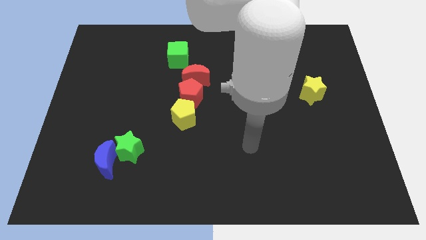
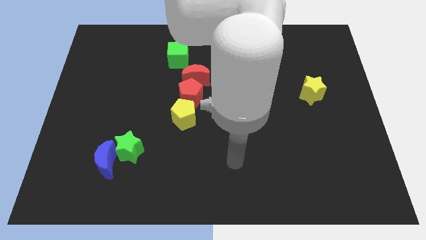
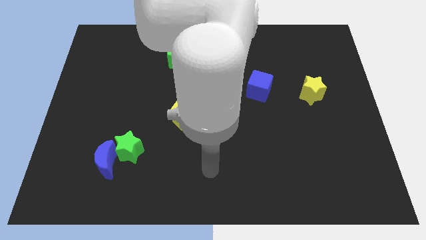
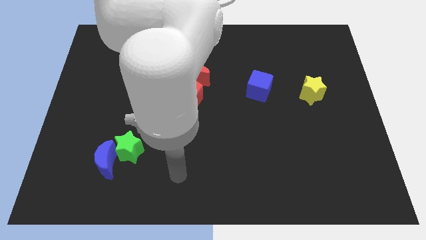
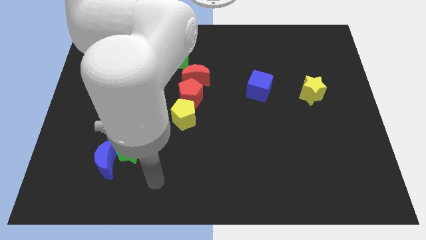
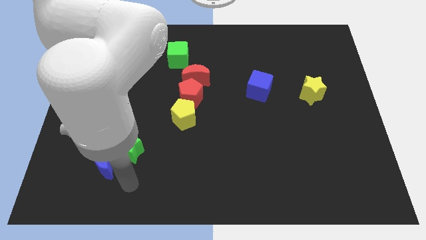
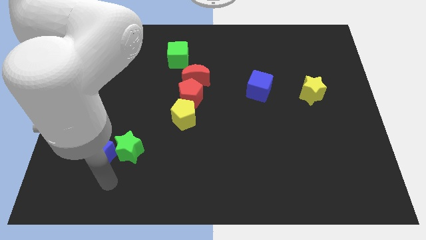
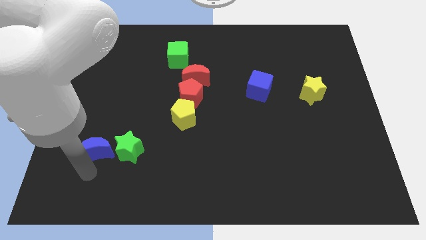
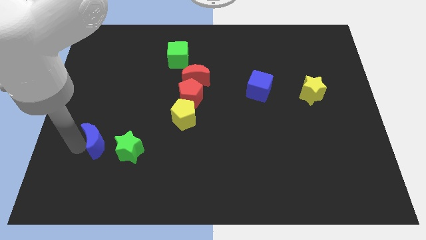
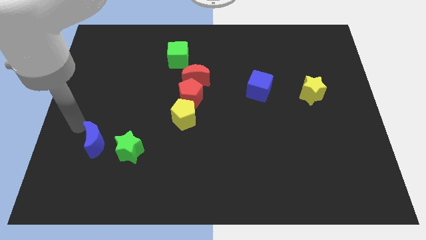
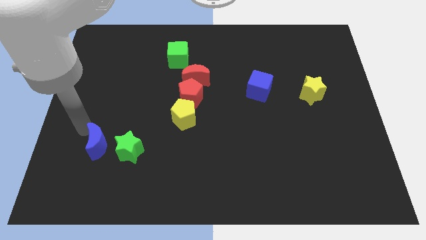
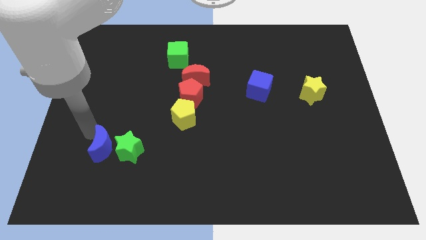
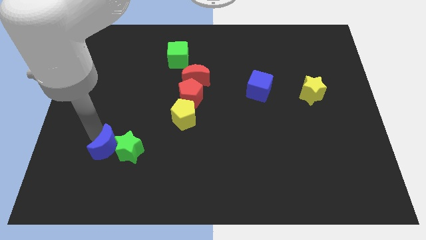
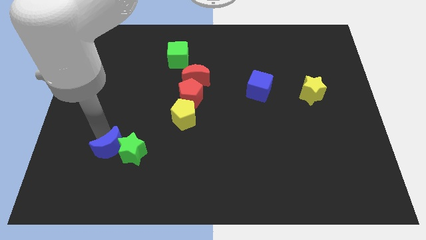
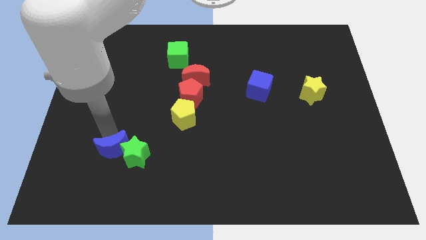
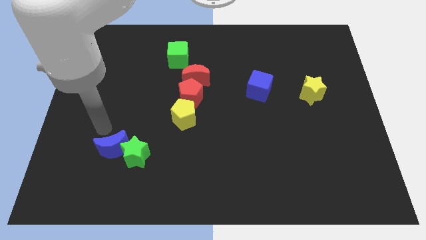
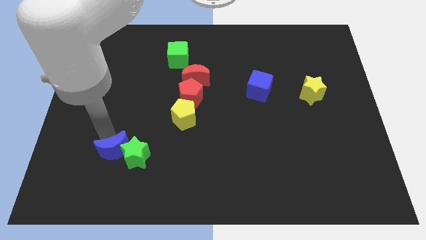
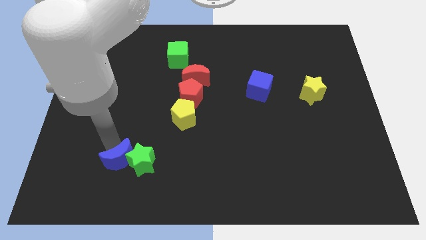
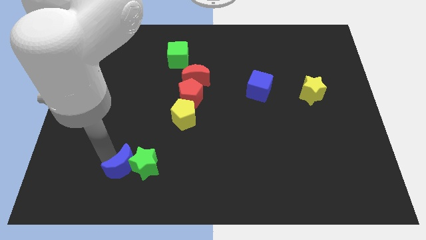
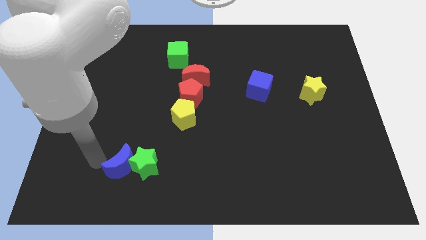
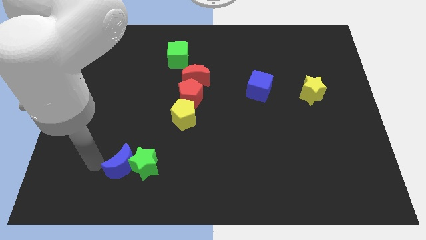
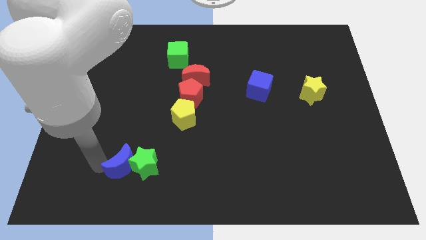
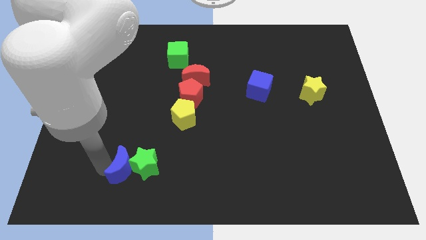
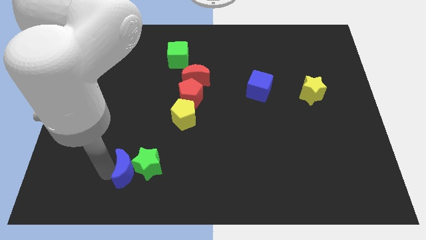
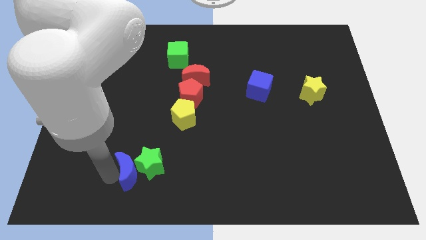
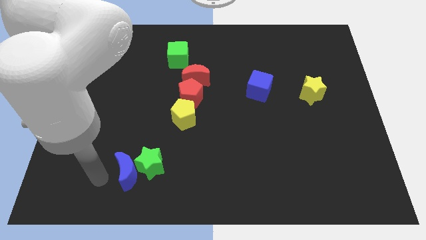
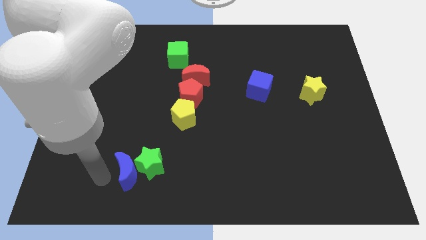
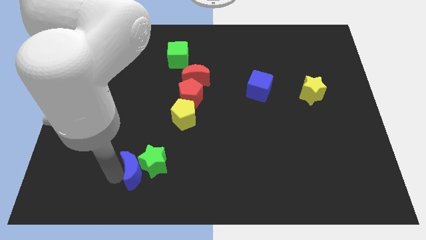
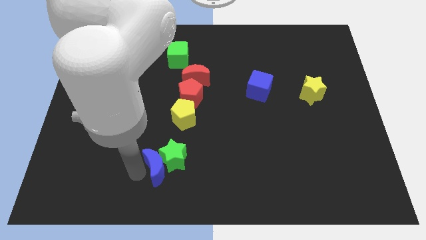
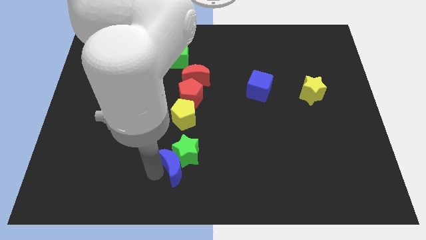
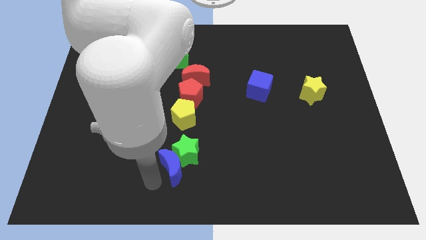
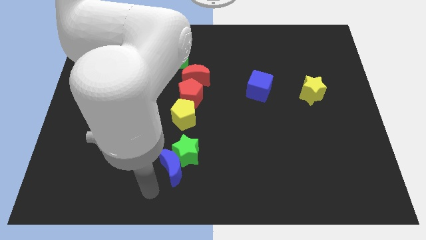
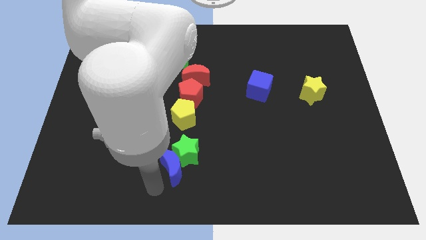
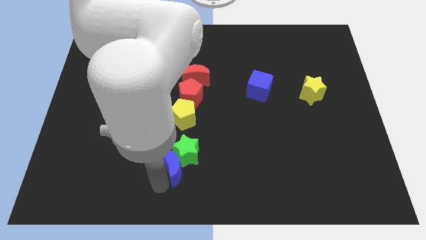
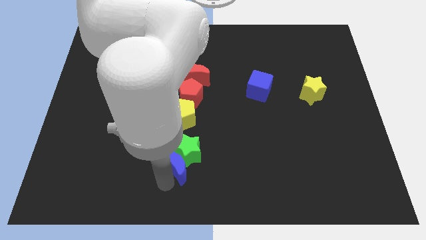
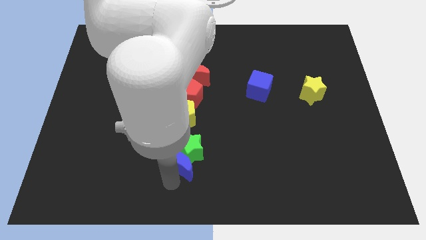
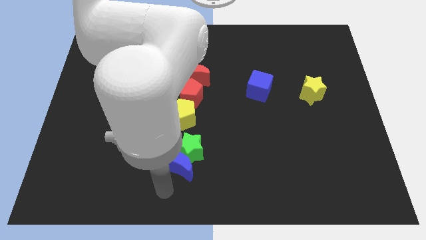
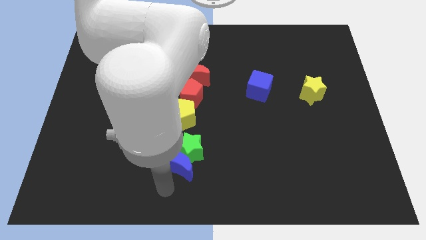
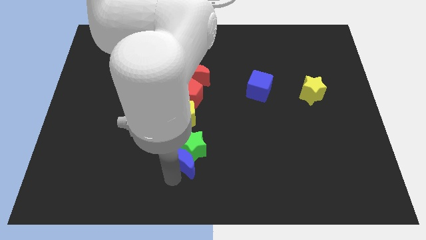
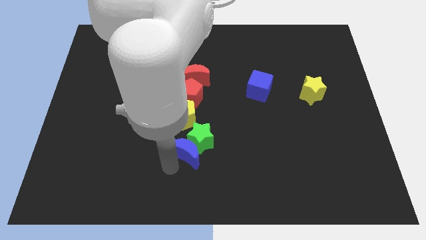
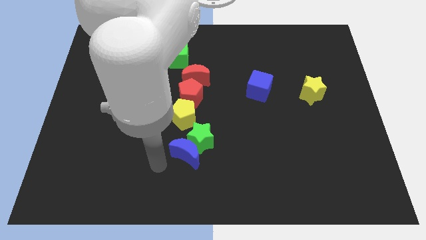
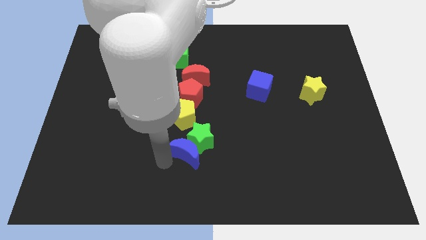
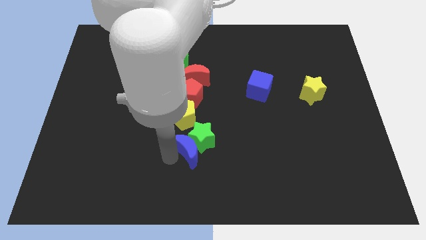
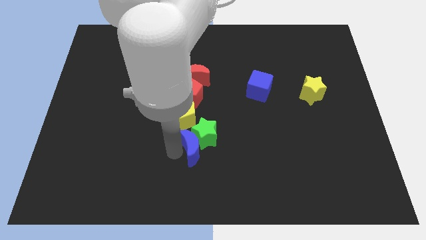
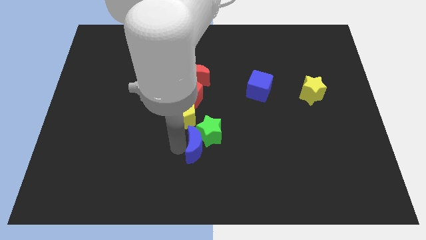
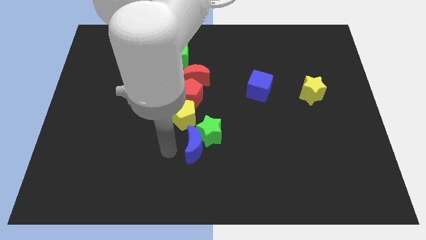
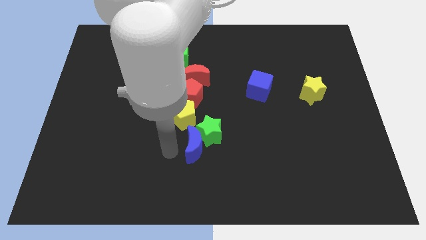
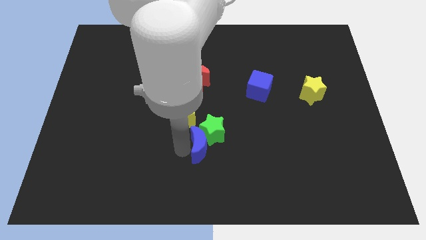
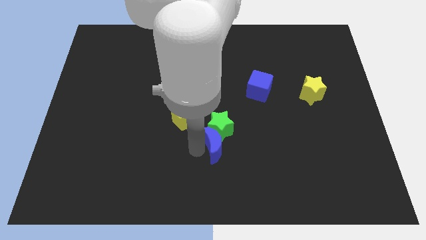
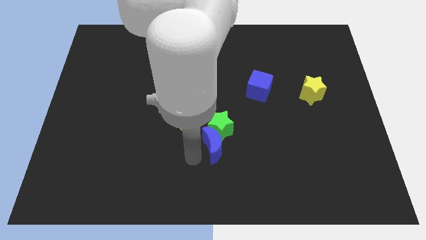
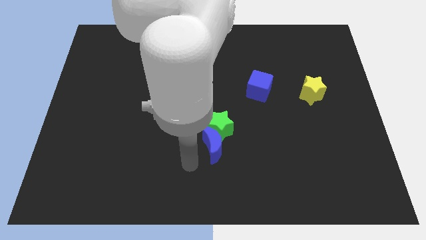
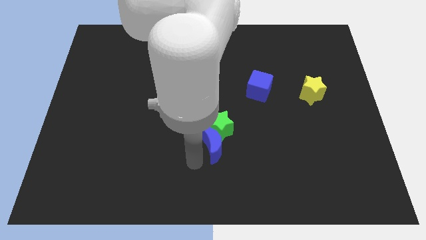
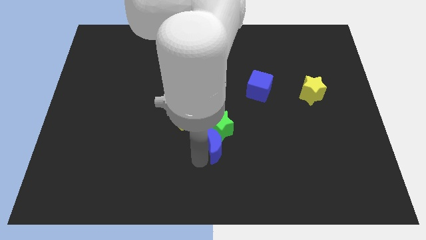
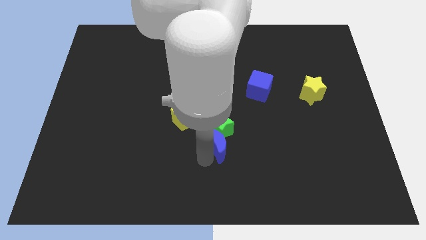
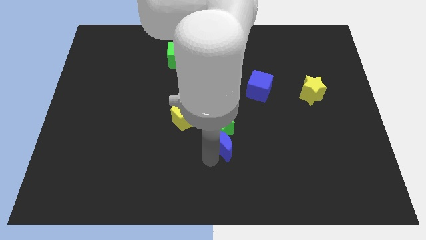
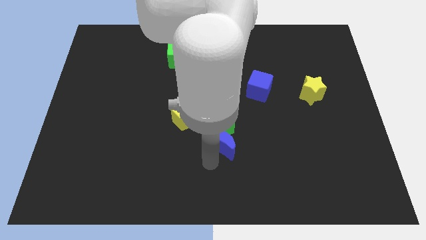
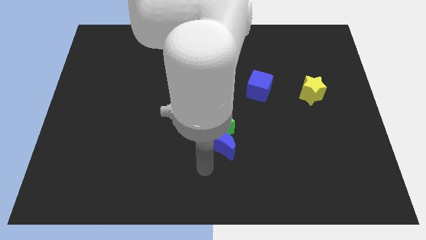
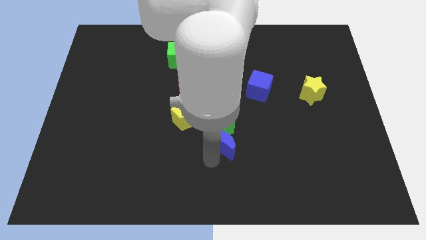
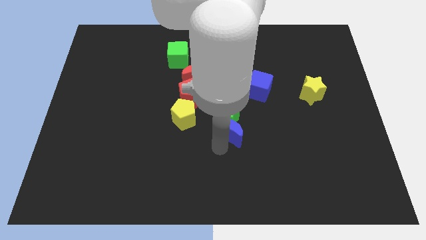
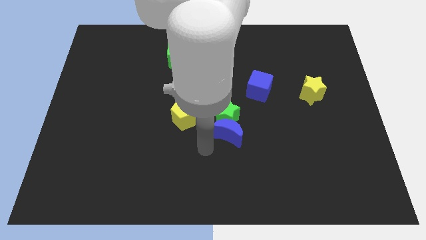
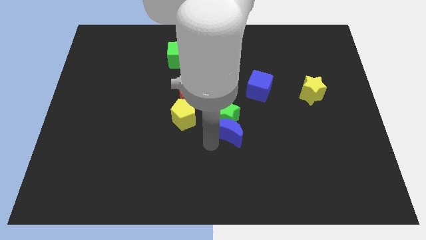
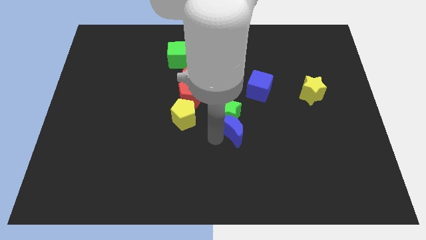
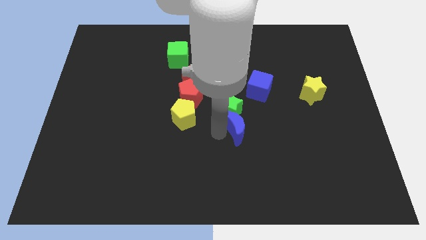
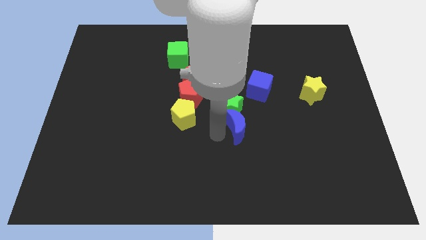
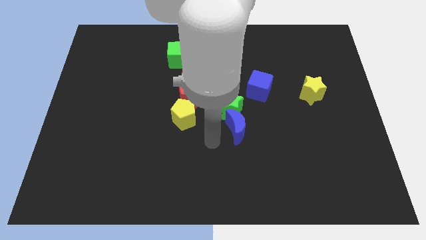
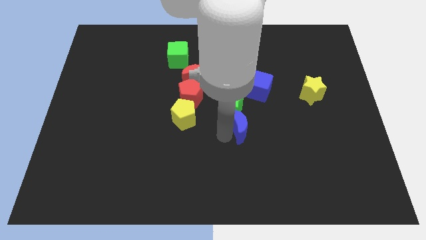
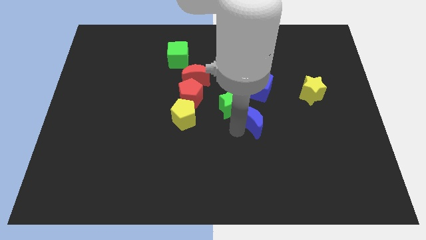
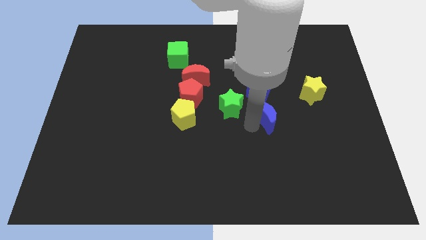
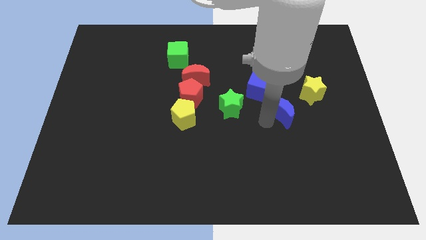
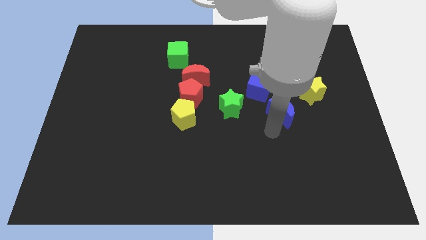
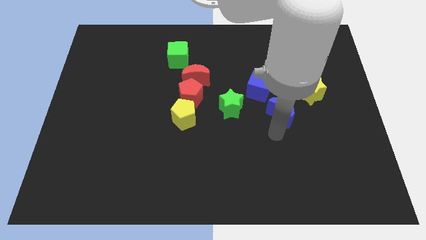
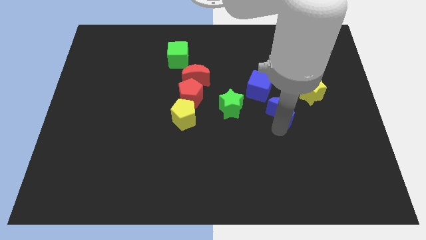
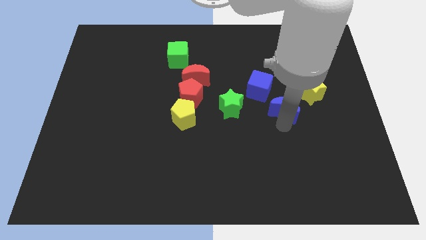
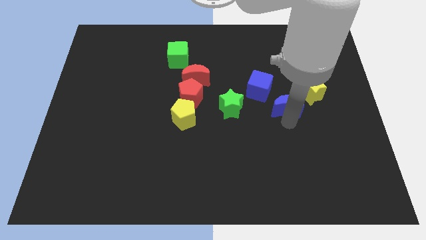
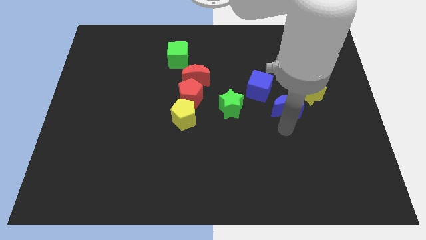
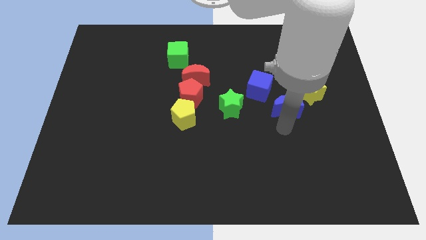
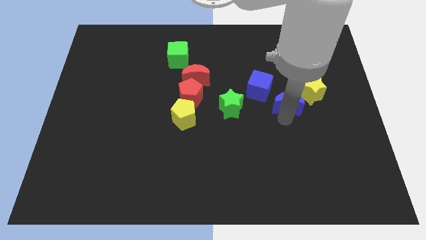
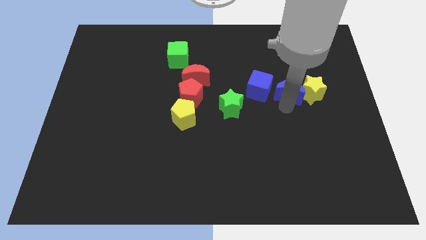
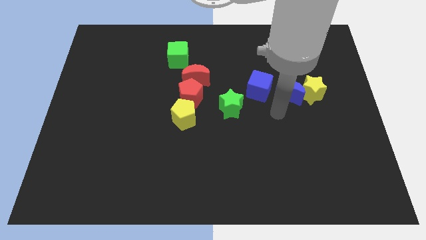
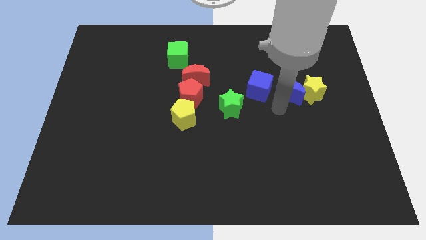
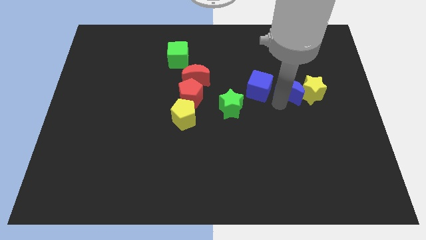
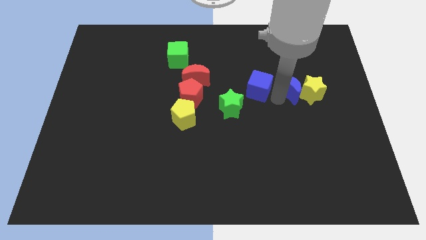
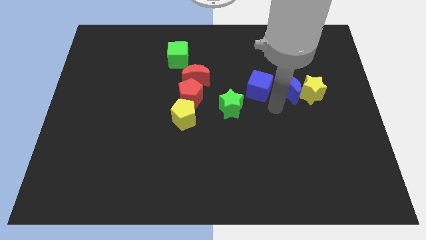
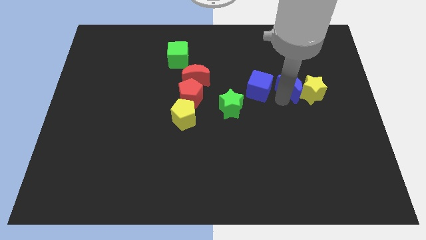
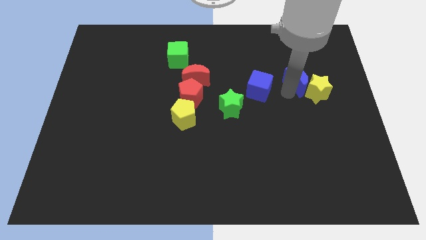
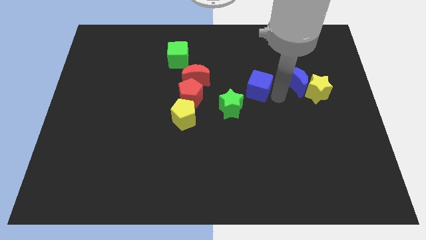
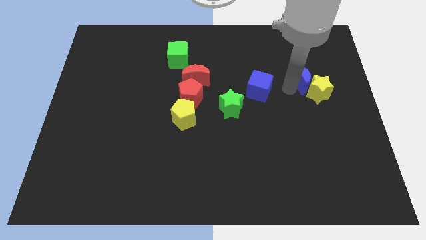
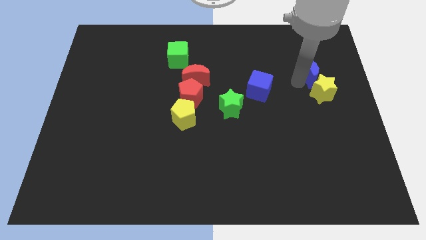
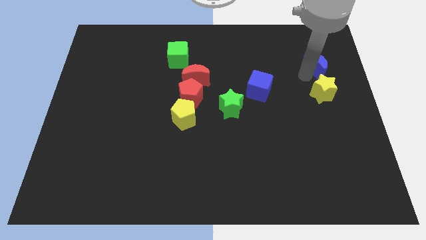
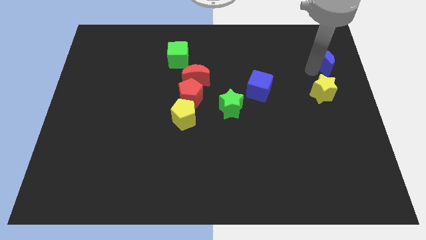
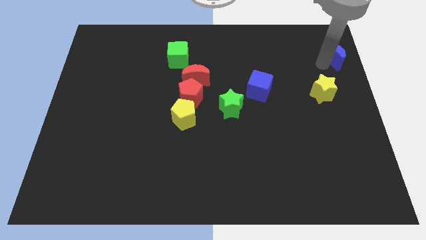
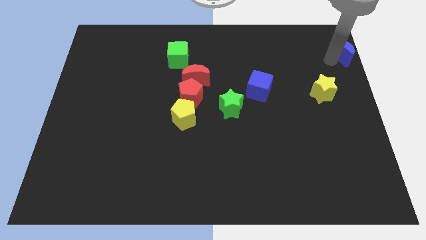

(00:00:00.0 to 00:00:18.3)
put the blue moon to the top right corner
